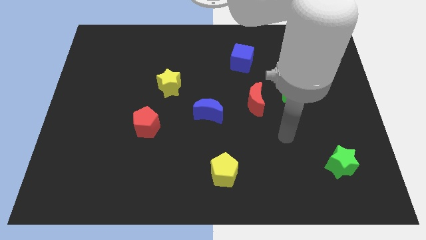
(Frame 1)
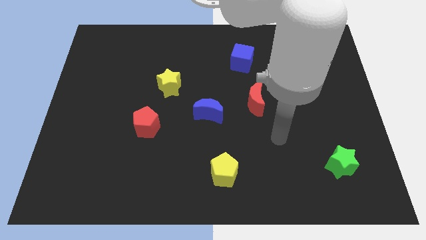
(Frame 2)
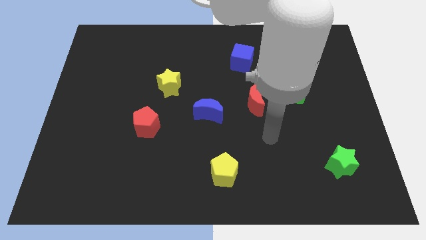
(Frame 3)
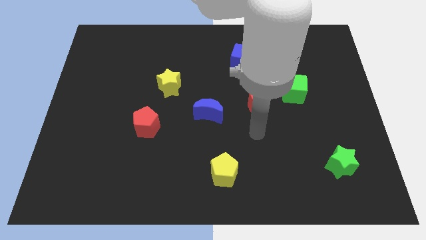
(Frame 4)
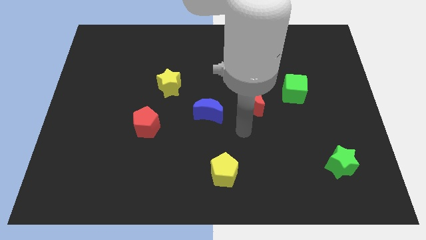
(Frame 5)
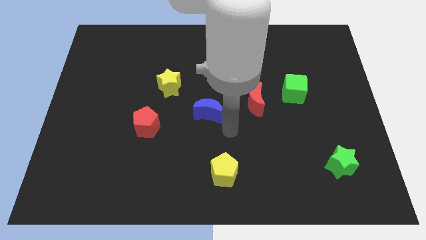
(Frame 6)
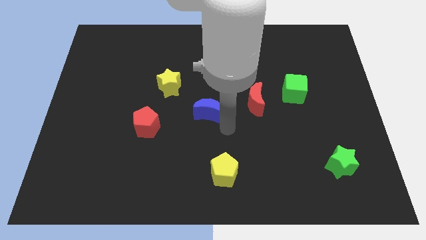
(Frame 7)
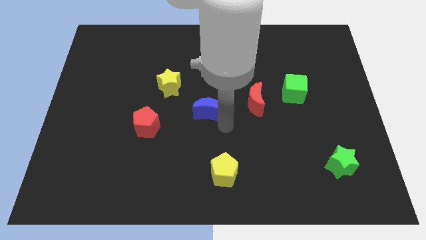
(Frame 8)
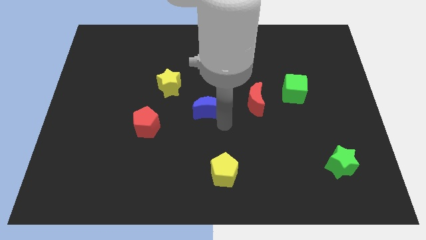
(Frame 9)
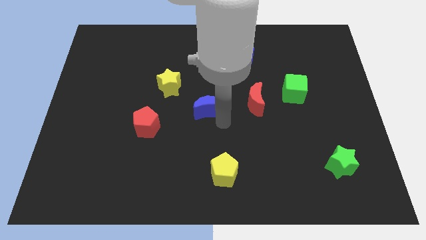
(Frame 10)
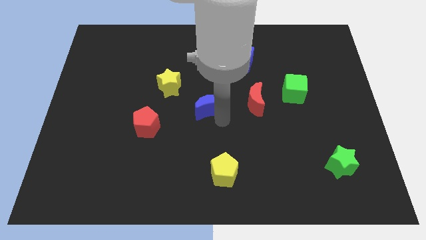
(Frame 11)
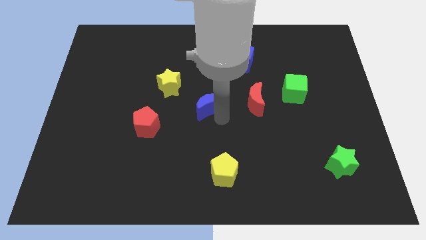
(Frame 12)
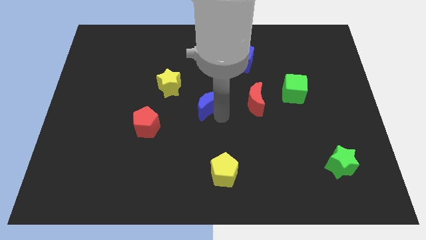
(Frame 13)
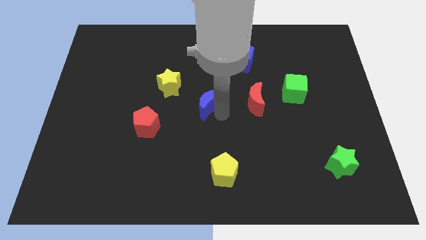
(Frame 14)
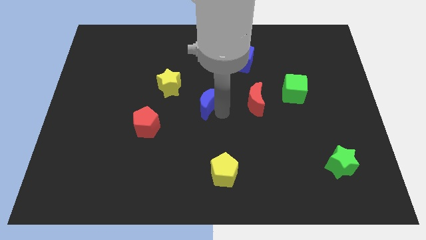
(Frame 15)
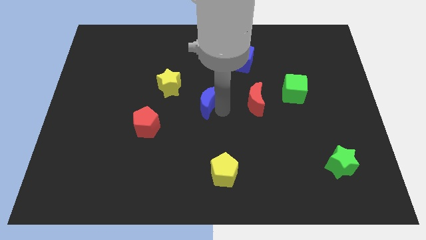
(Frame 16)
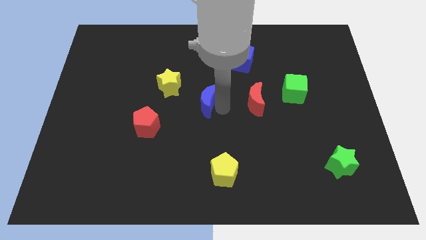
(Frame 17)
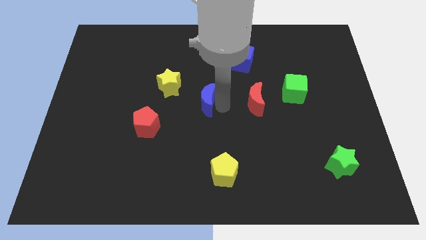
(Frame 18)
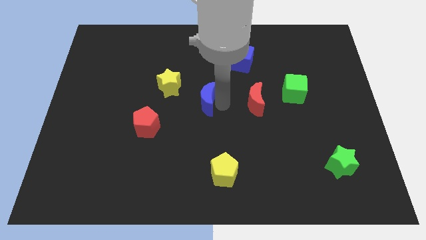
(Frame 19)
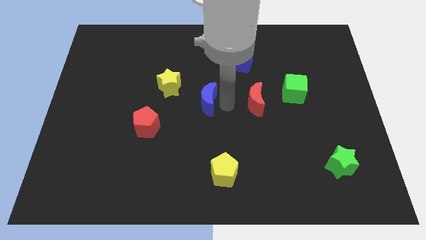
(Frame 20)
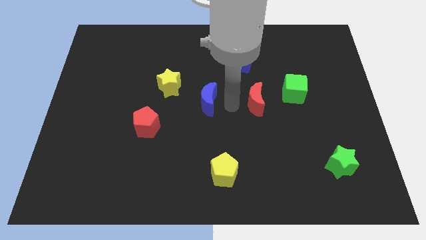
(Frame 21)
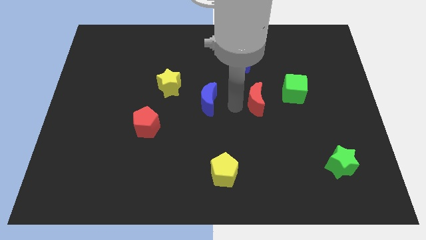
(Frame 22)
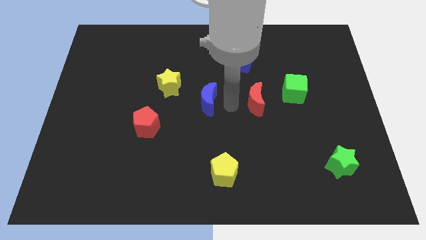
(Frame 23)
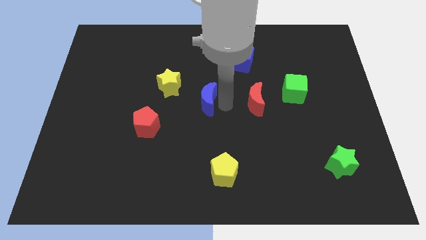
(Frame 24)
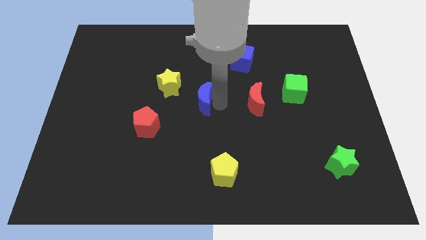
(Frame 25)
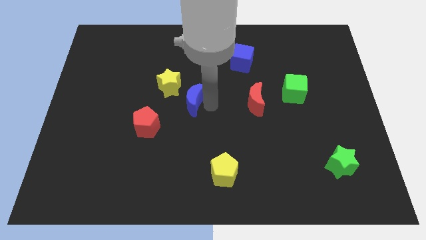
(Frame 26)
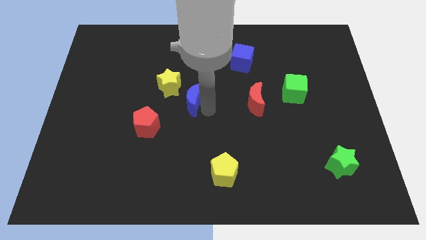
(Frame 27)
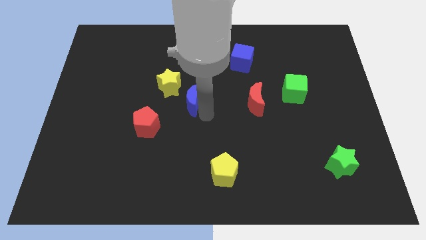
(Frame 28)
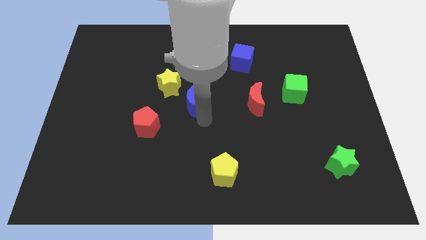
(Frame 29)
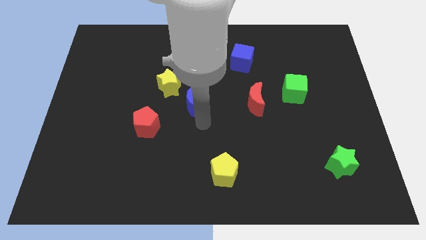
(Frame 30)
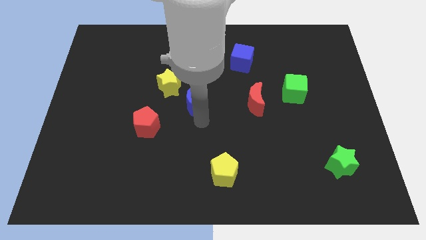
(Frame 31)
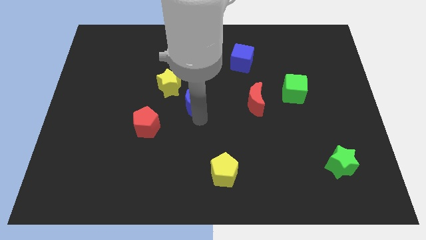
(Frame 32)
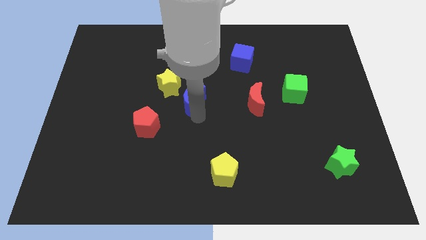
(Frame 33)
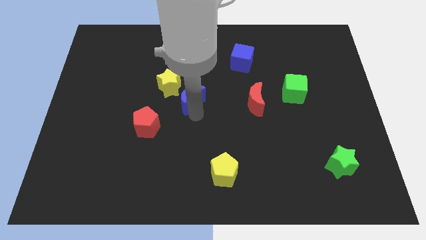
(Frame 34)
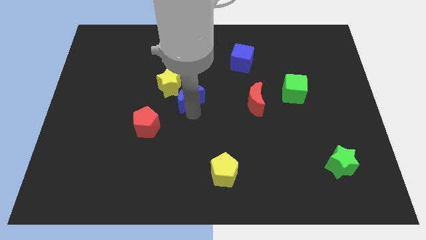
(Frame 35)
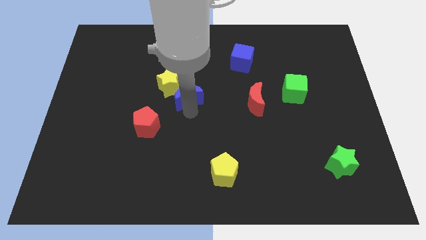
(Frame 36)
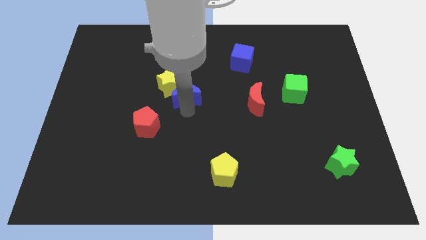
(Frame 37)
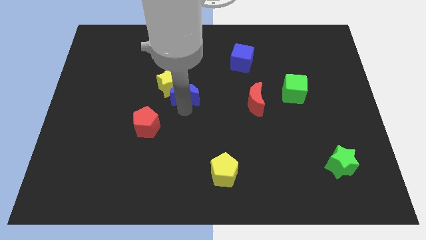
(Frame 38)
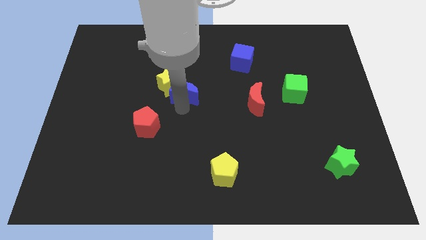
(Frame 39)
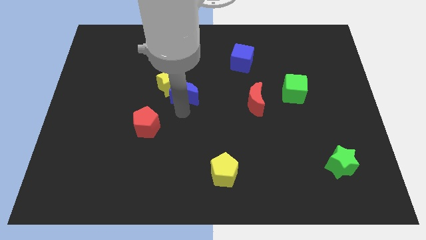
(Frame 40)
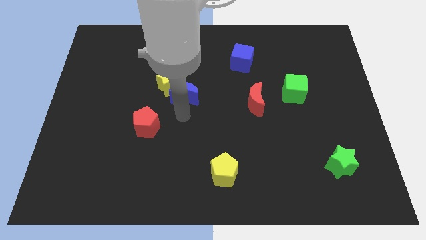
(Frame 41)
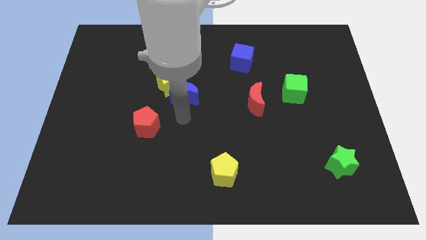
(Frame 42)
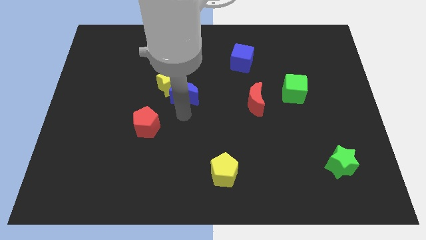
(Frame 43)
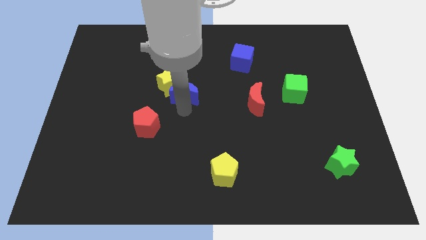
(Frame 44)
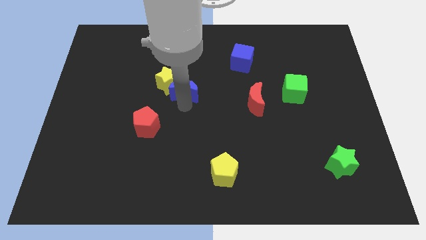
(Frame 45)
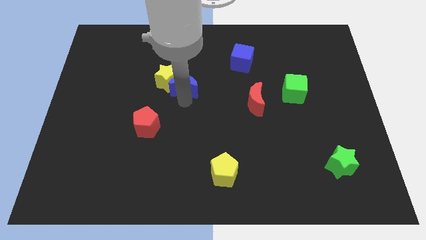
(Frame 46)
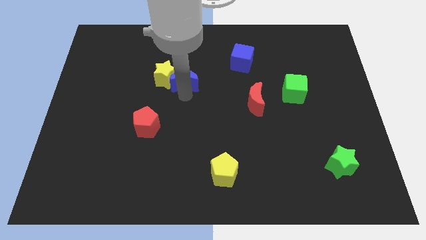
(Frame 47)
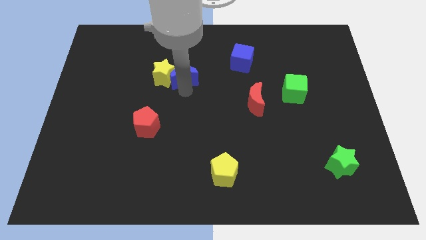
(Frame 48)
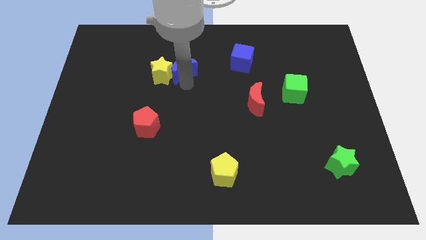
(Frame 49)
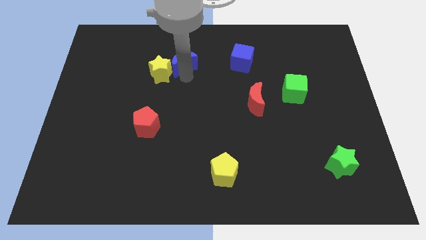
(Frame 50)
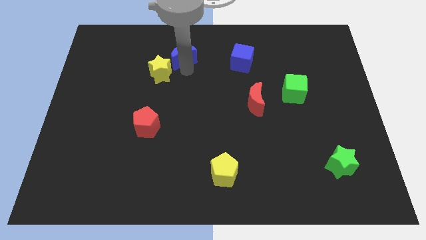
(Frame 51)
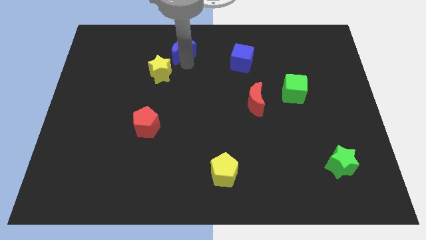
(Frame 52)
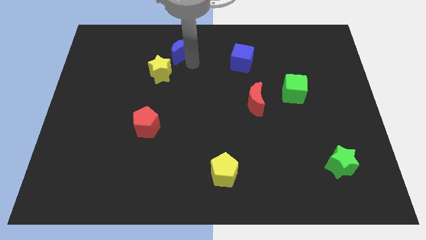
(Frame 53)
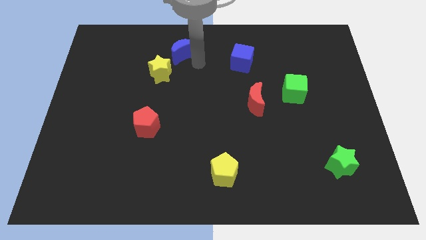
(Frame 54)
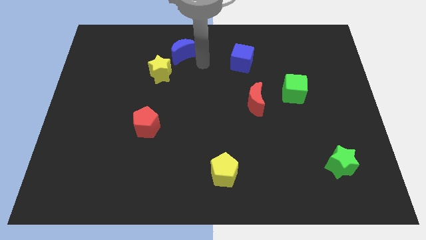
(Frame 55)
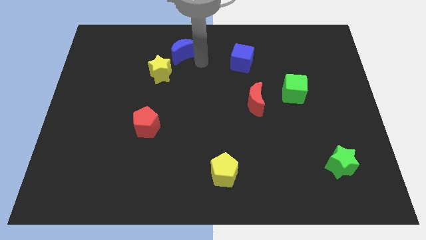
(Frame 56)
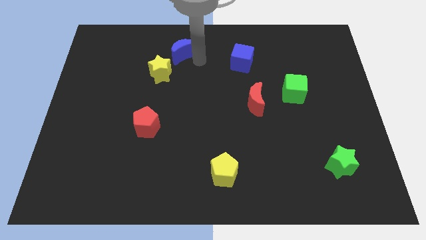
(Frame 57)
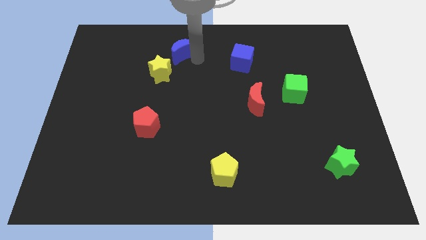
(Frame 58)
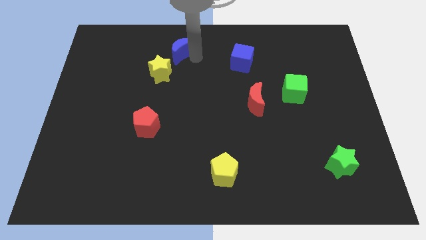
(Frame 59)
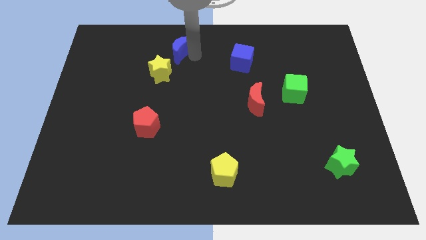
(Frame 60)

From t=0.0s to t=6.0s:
move the blue moon to the top side of the yellow star

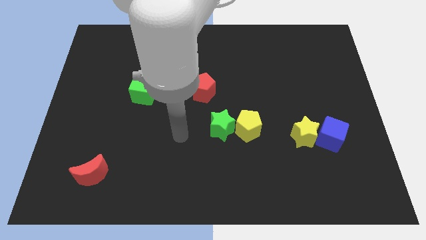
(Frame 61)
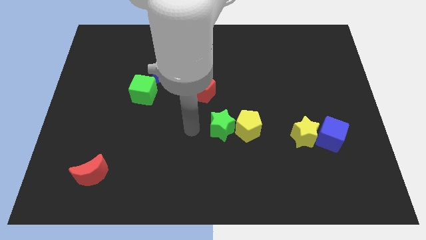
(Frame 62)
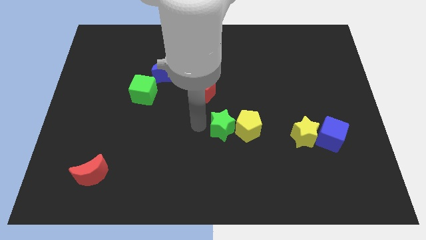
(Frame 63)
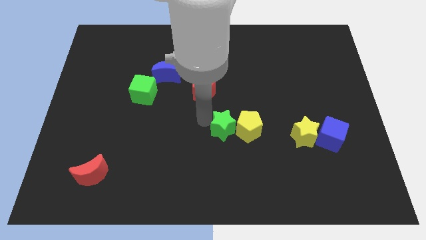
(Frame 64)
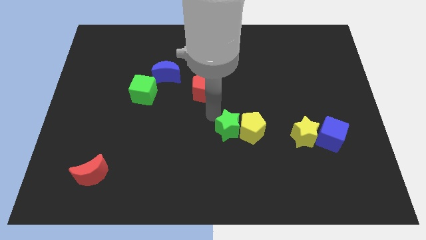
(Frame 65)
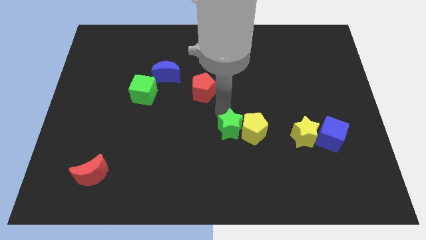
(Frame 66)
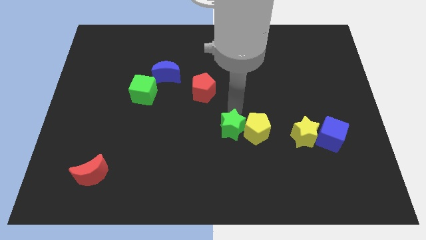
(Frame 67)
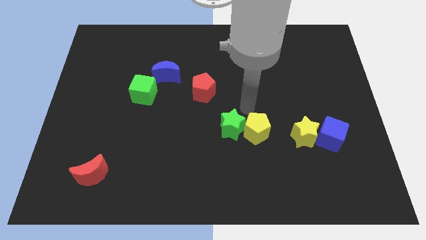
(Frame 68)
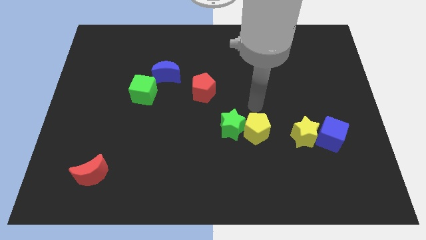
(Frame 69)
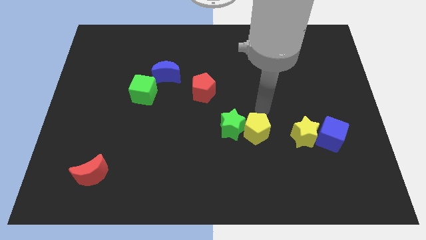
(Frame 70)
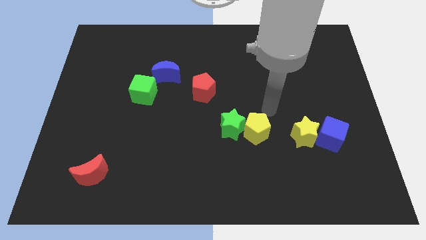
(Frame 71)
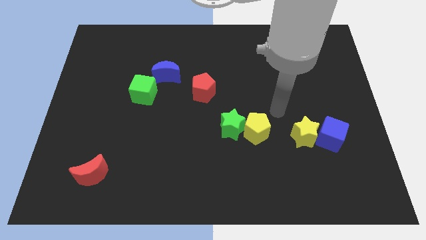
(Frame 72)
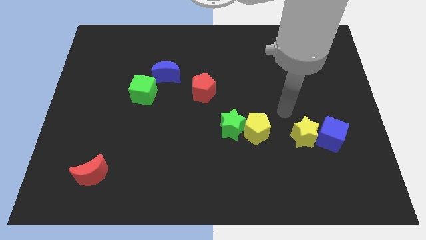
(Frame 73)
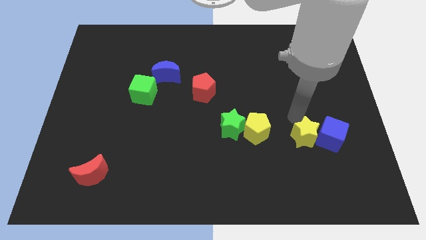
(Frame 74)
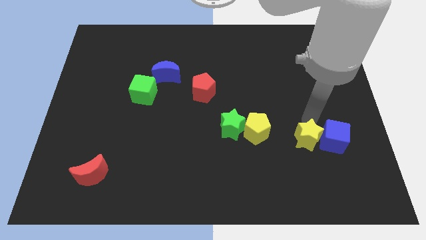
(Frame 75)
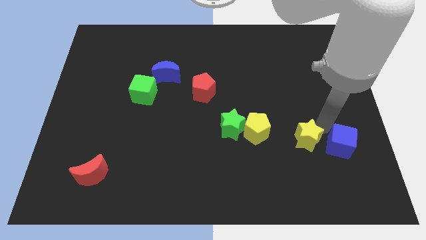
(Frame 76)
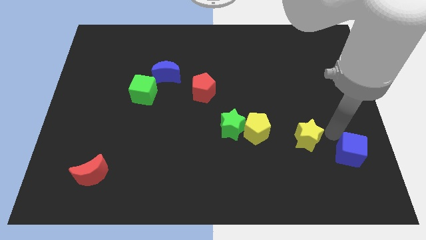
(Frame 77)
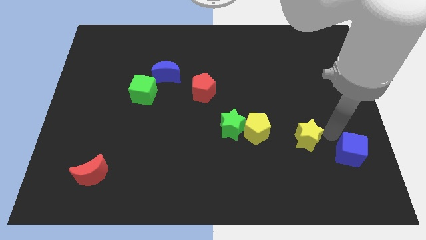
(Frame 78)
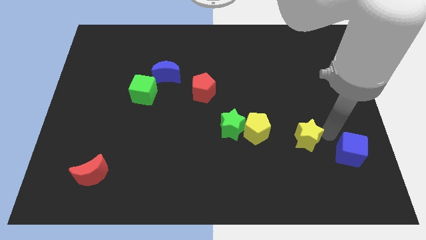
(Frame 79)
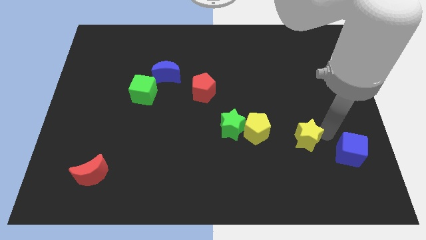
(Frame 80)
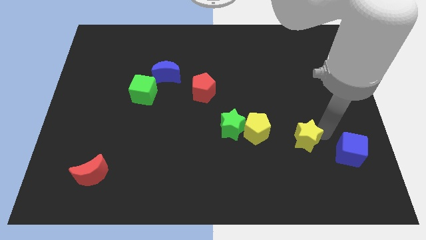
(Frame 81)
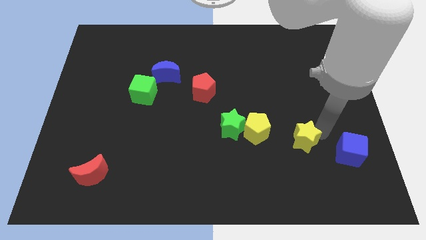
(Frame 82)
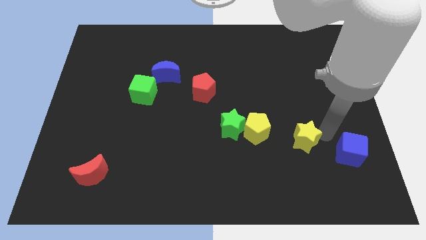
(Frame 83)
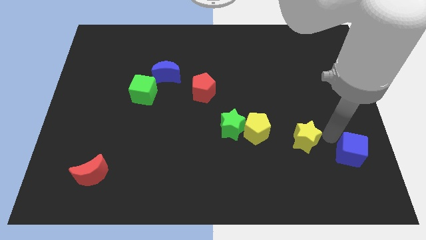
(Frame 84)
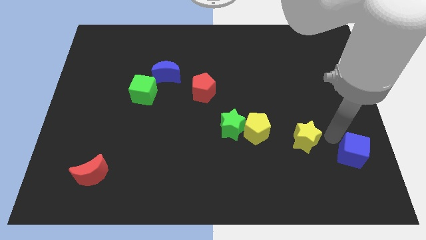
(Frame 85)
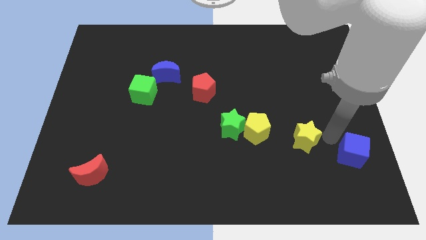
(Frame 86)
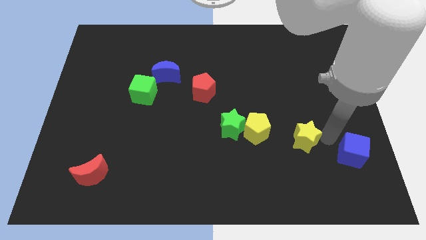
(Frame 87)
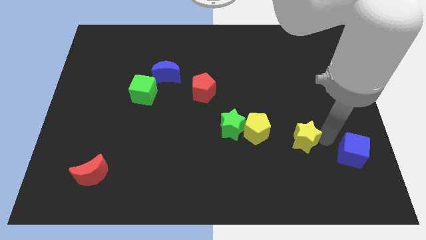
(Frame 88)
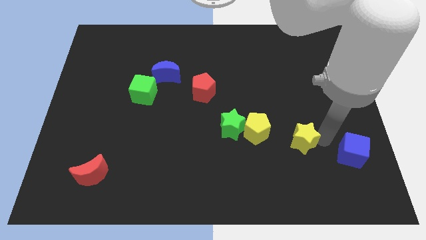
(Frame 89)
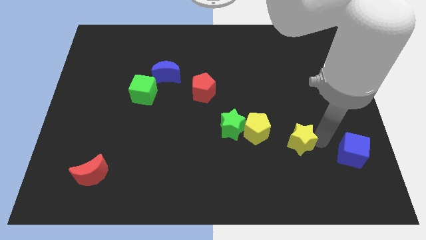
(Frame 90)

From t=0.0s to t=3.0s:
move the yellow star diagonally down and to the right of the yellow pentagon
